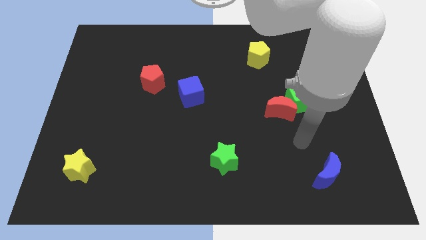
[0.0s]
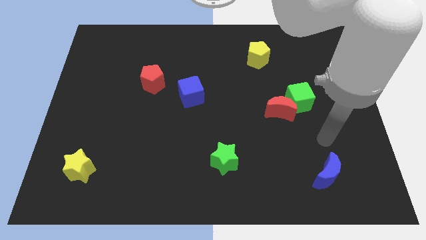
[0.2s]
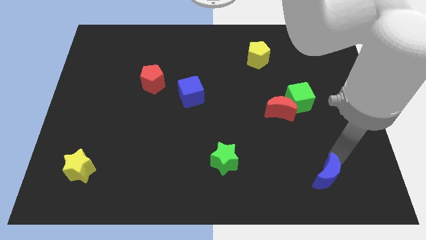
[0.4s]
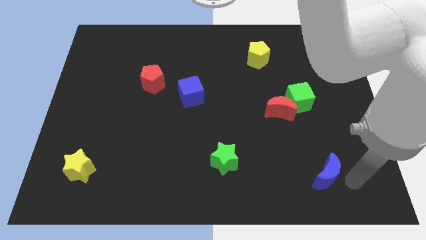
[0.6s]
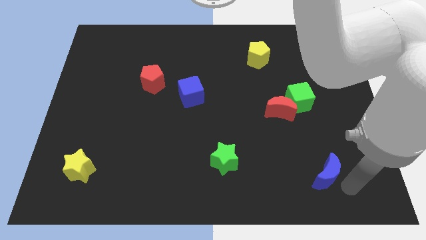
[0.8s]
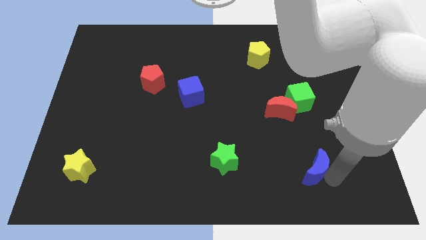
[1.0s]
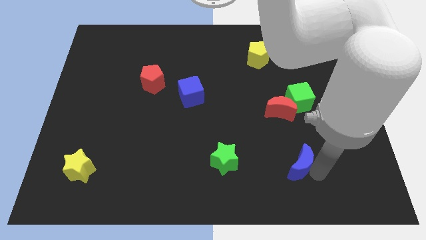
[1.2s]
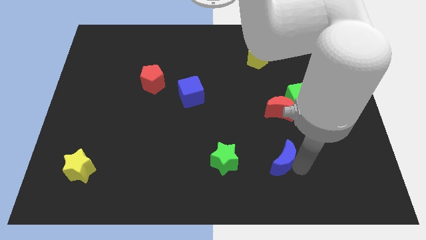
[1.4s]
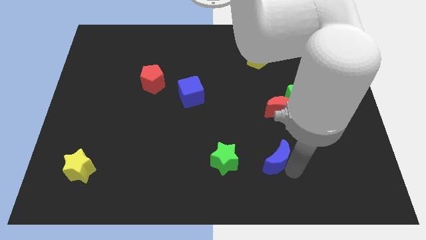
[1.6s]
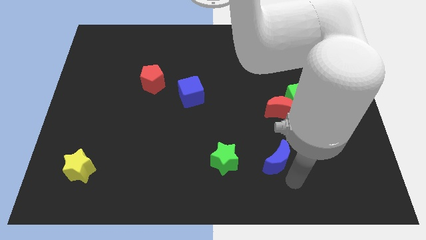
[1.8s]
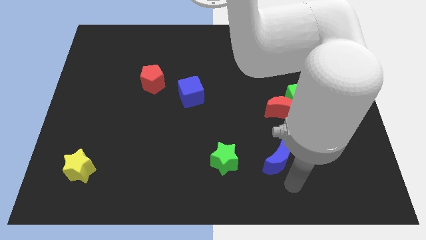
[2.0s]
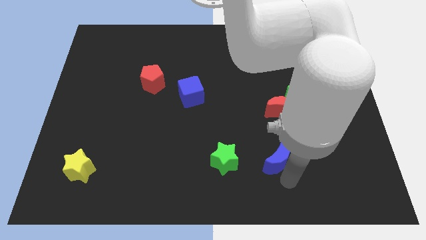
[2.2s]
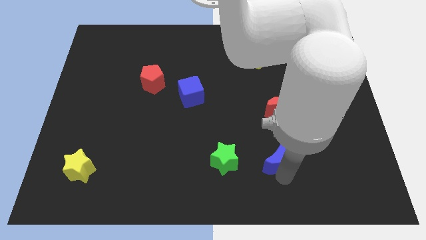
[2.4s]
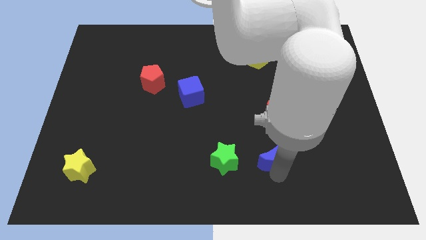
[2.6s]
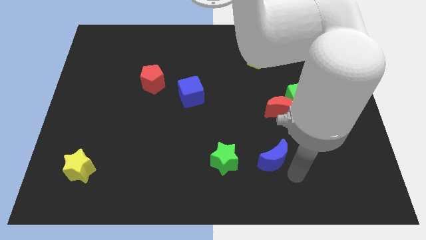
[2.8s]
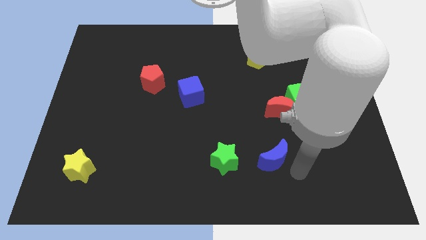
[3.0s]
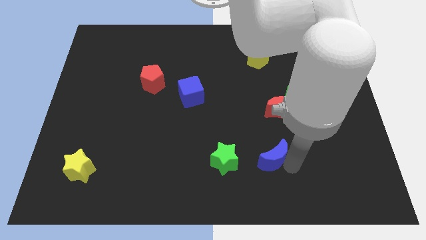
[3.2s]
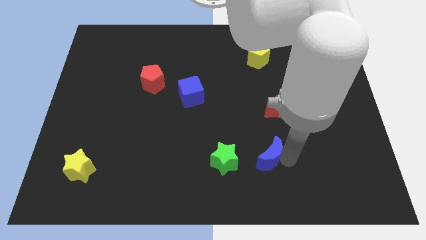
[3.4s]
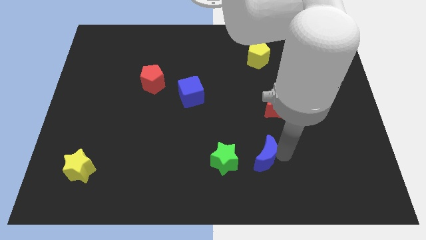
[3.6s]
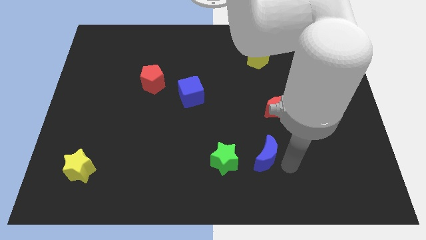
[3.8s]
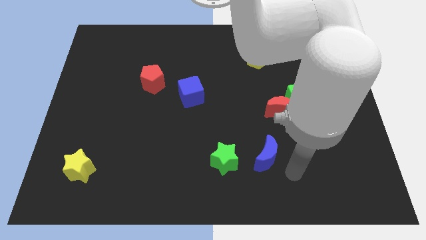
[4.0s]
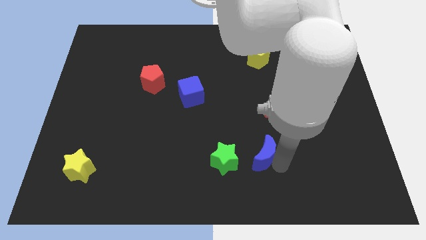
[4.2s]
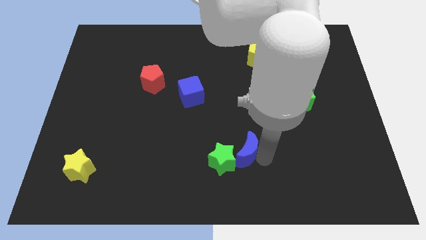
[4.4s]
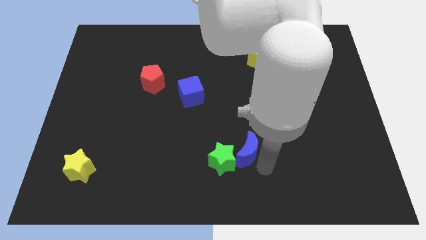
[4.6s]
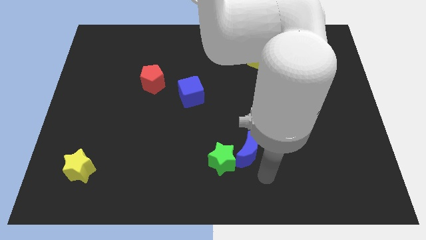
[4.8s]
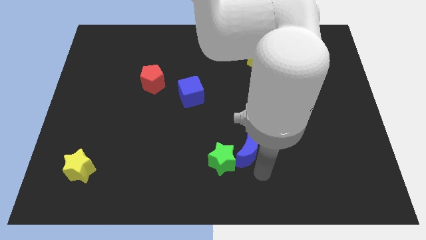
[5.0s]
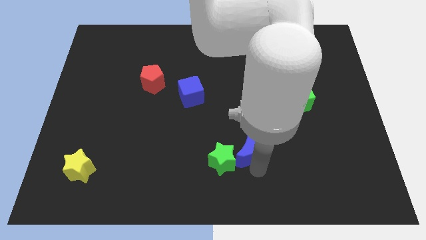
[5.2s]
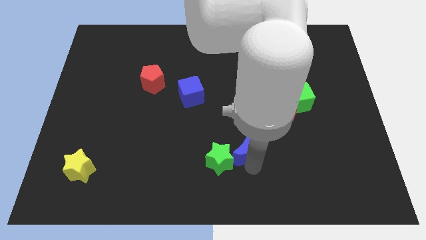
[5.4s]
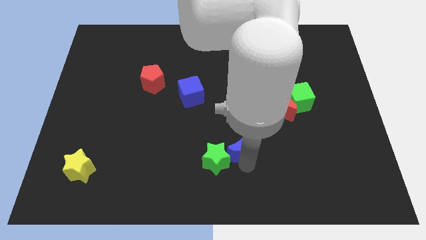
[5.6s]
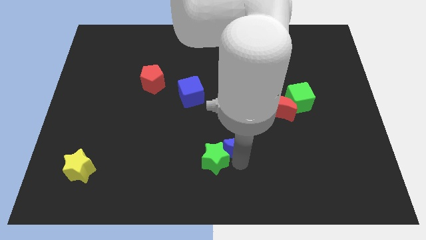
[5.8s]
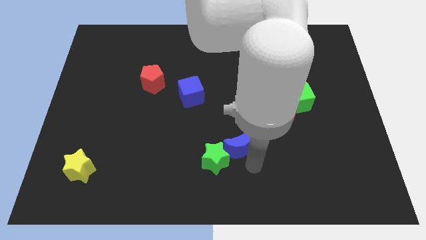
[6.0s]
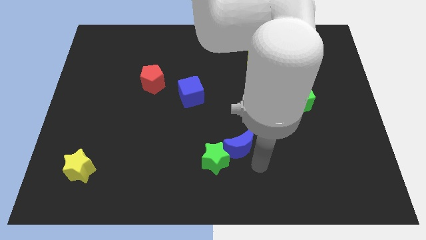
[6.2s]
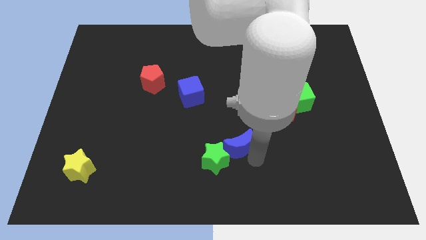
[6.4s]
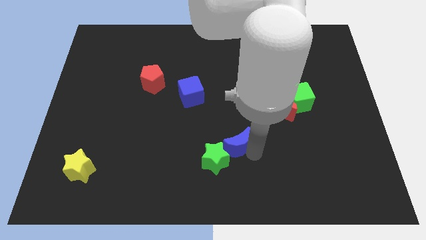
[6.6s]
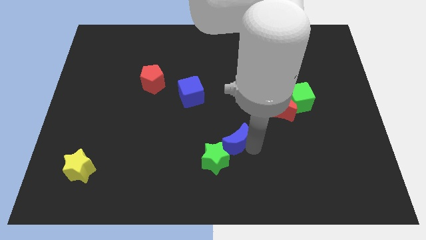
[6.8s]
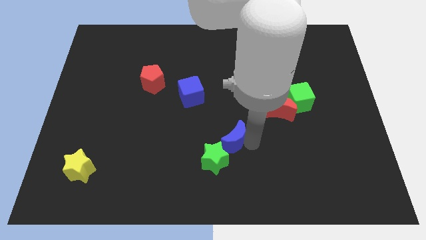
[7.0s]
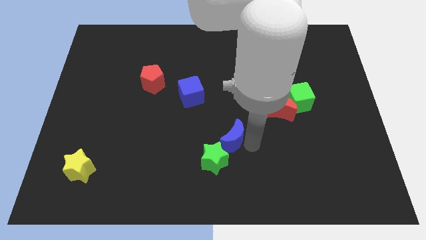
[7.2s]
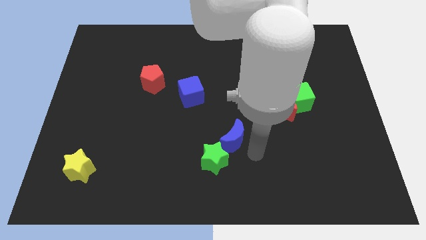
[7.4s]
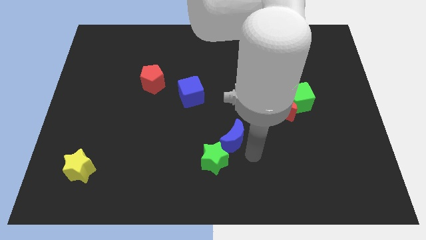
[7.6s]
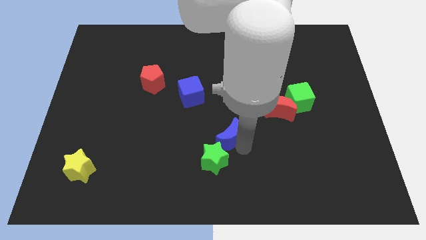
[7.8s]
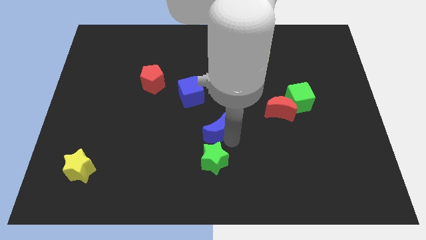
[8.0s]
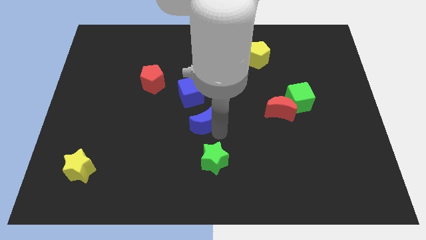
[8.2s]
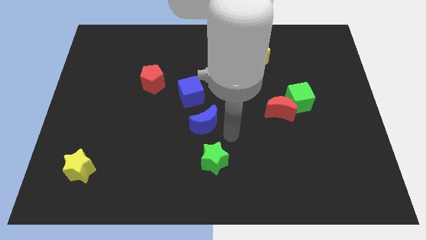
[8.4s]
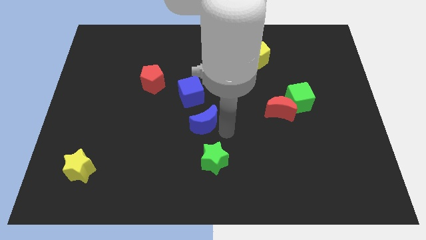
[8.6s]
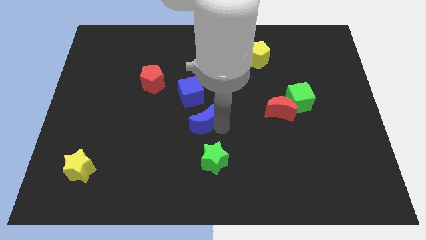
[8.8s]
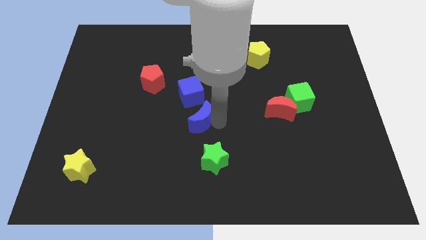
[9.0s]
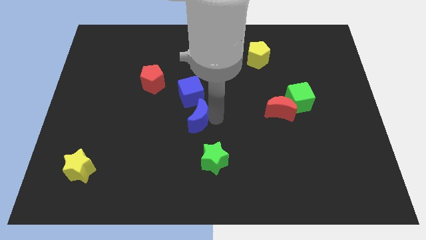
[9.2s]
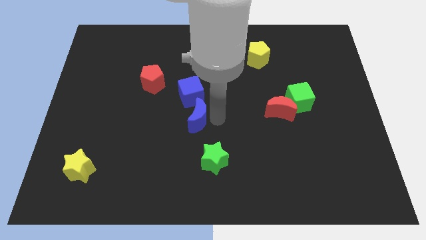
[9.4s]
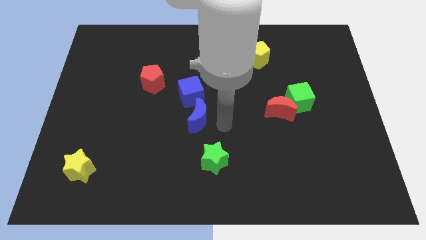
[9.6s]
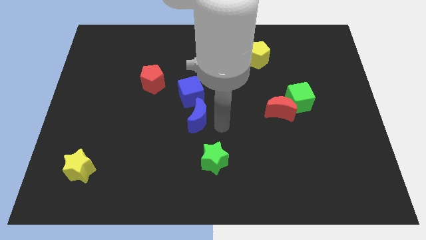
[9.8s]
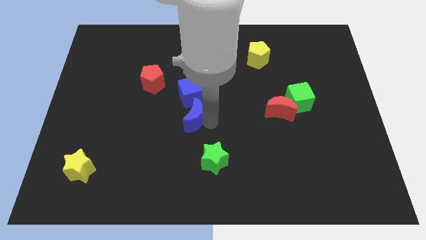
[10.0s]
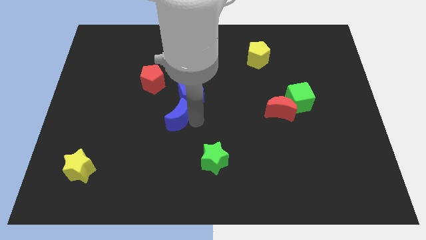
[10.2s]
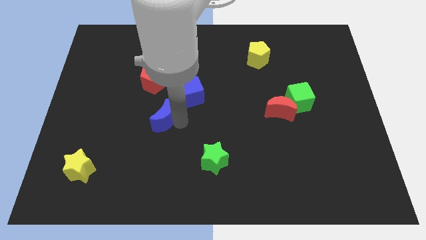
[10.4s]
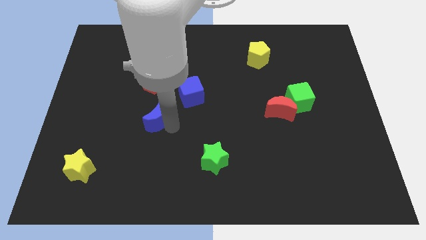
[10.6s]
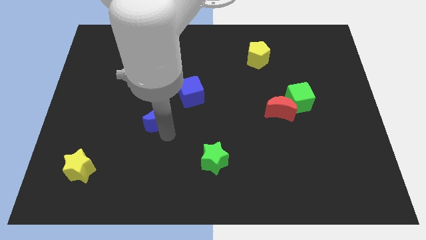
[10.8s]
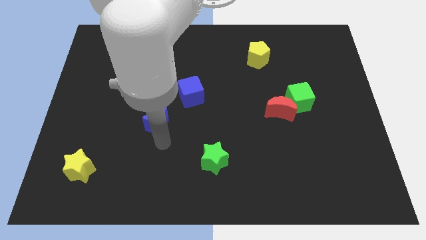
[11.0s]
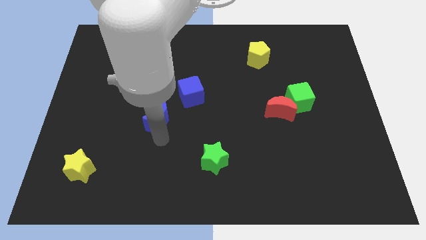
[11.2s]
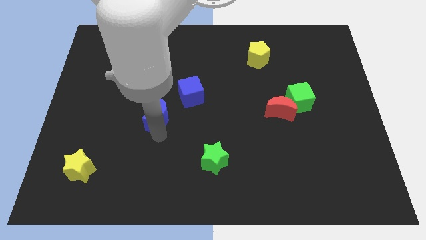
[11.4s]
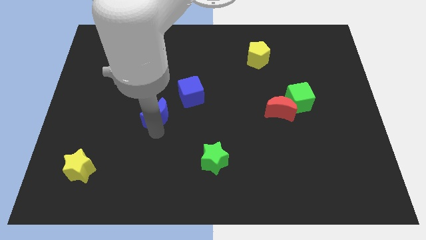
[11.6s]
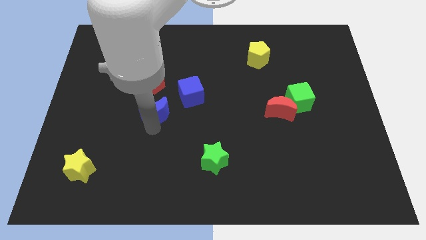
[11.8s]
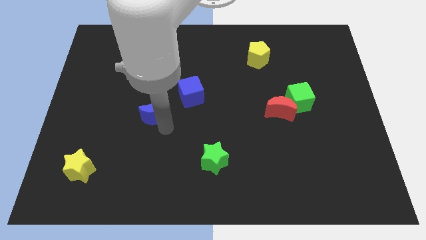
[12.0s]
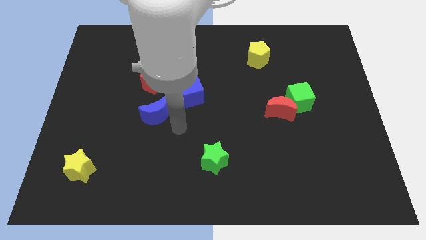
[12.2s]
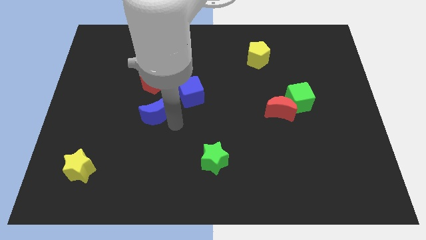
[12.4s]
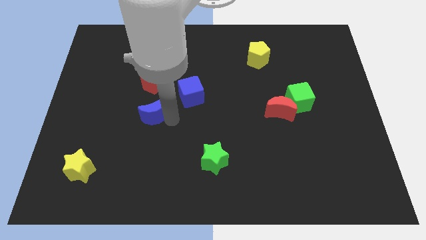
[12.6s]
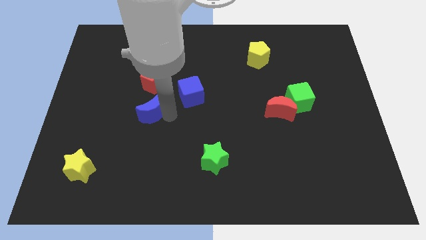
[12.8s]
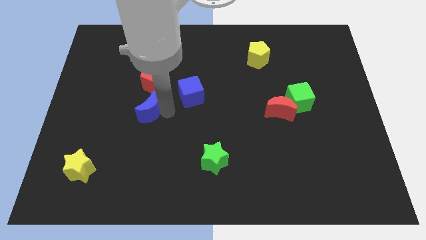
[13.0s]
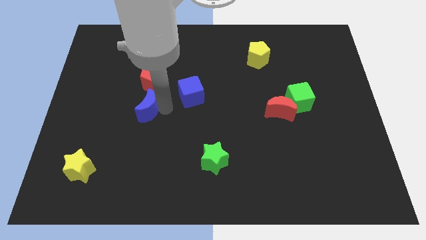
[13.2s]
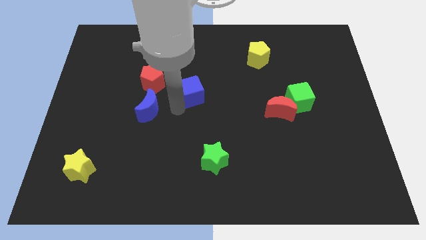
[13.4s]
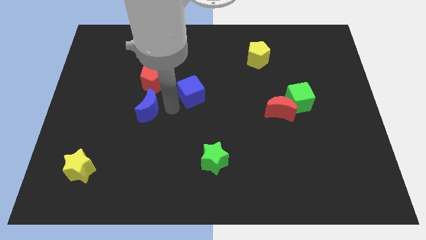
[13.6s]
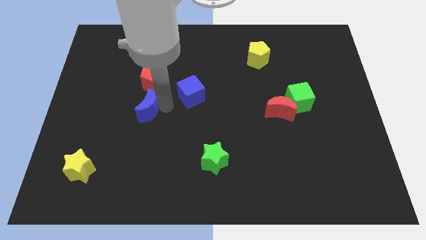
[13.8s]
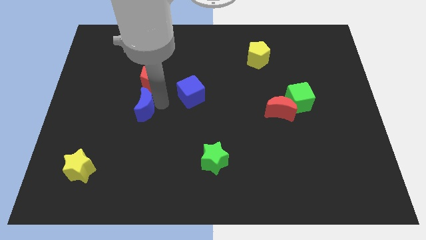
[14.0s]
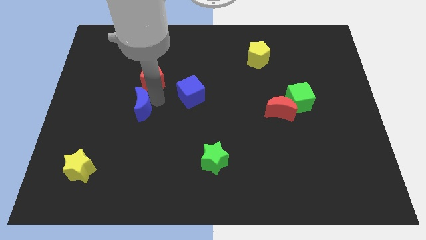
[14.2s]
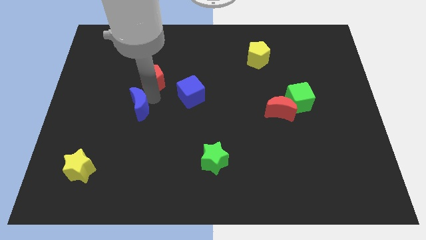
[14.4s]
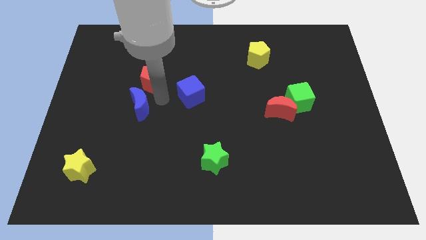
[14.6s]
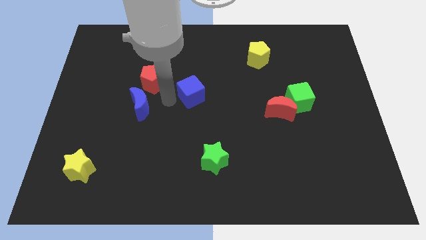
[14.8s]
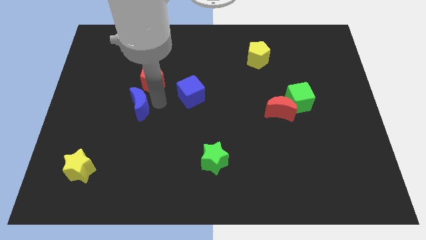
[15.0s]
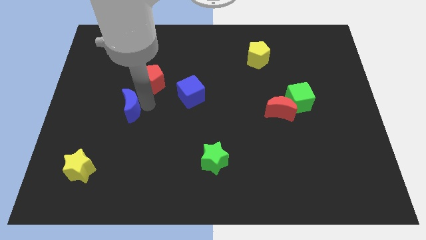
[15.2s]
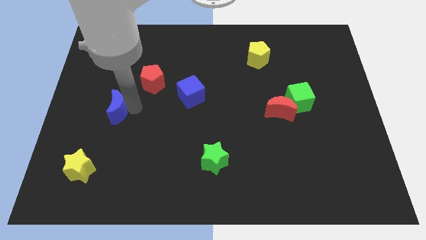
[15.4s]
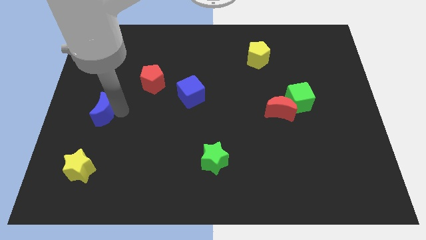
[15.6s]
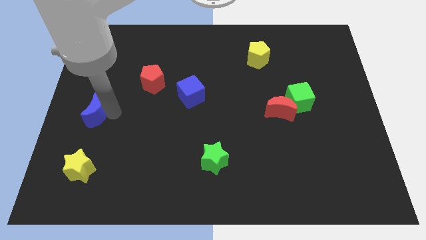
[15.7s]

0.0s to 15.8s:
move the blue moon to the left side
